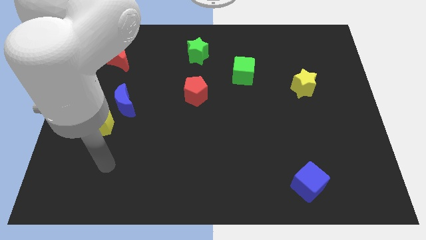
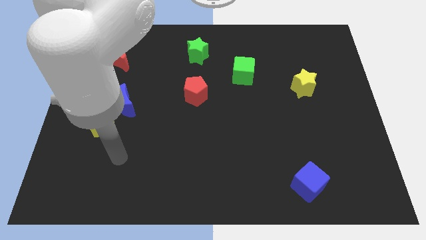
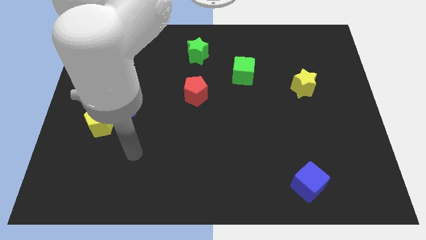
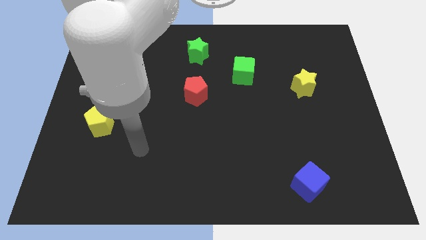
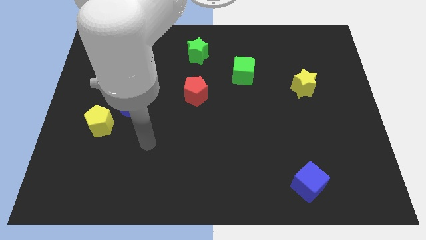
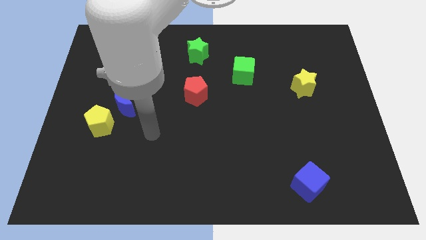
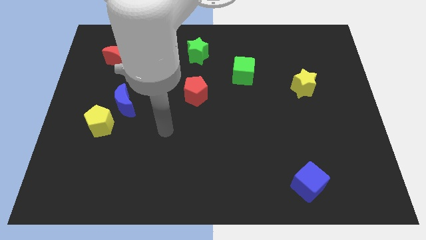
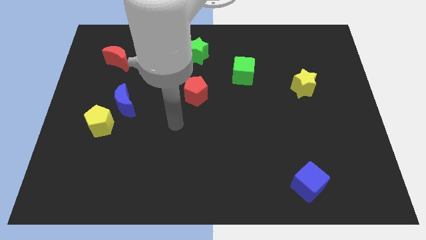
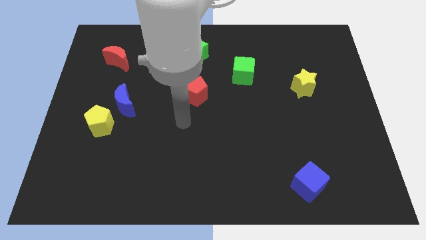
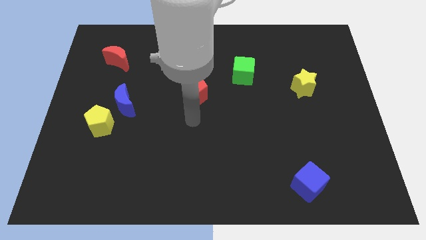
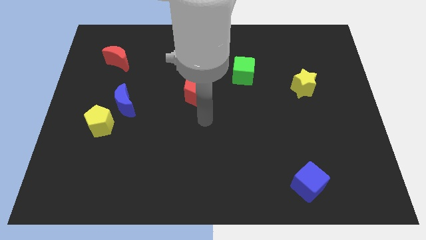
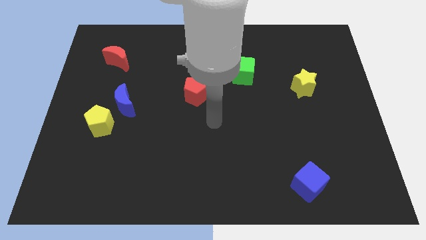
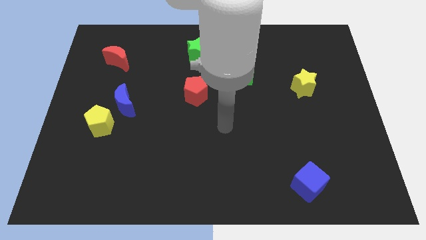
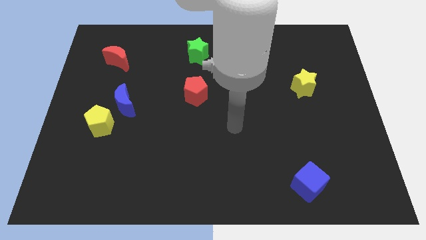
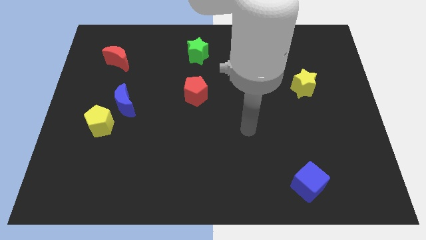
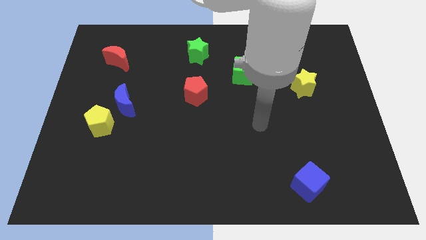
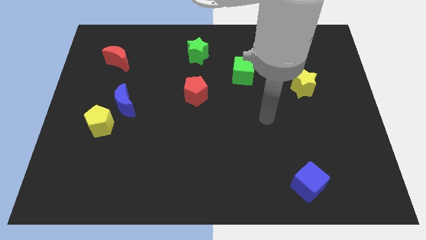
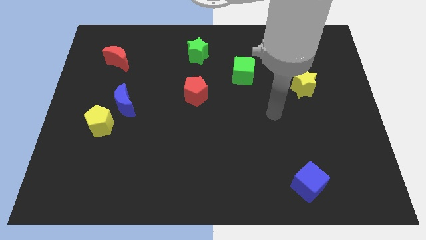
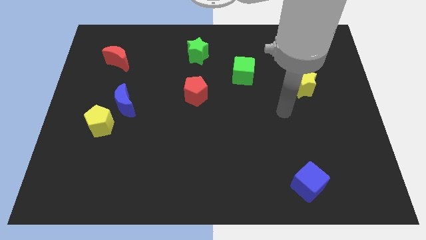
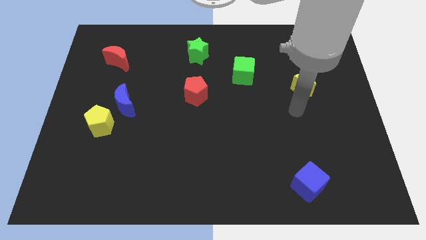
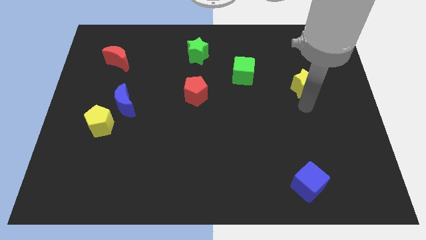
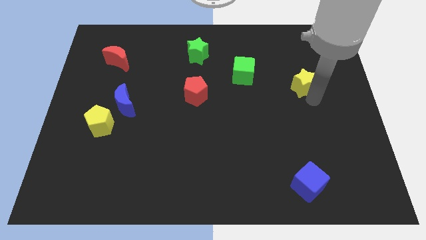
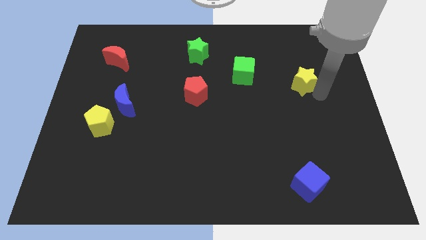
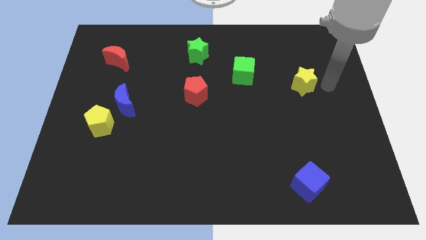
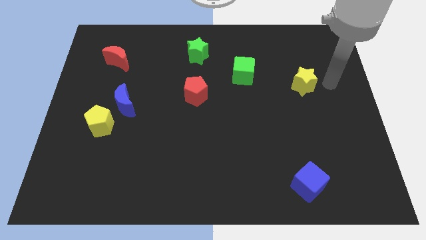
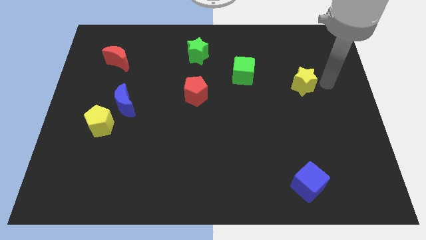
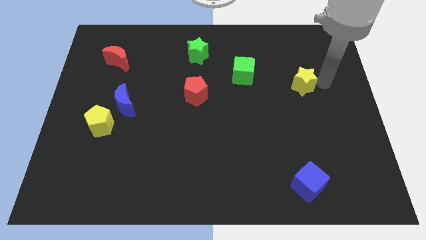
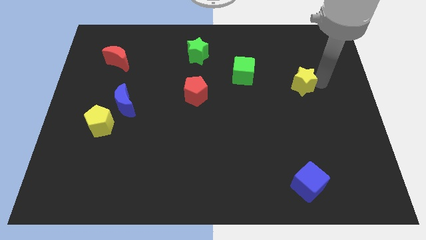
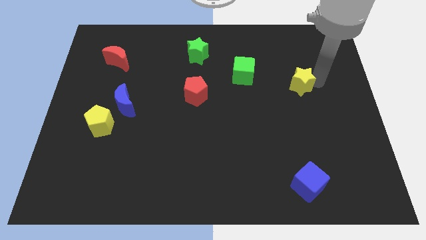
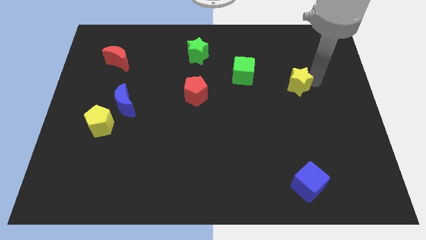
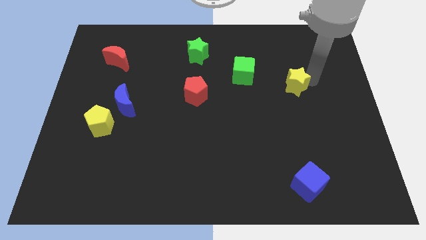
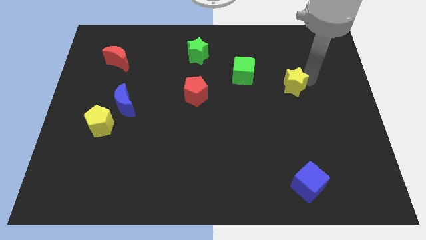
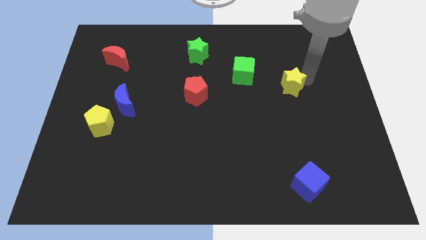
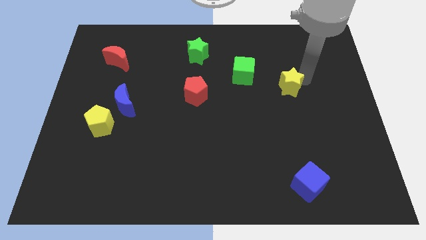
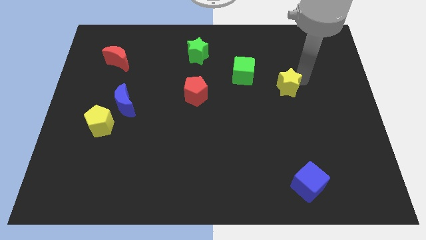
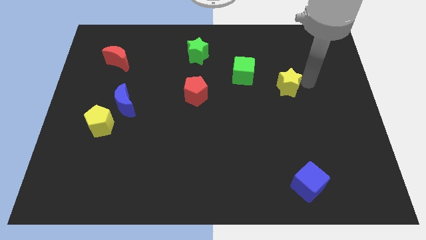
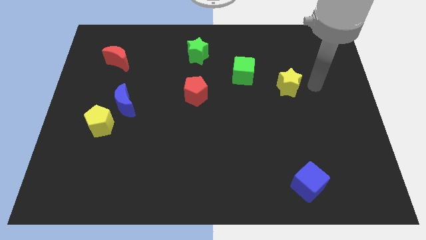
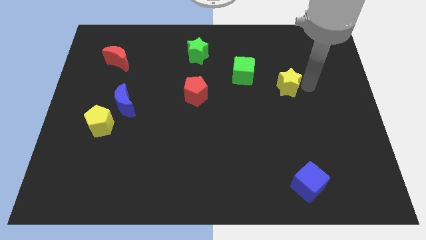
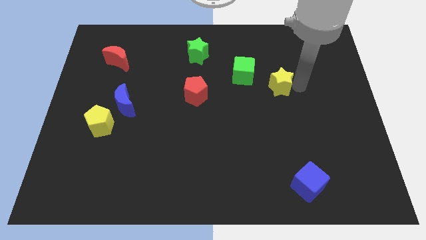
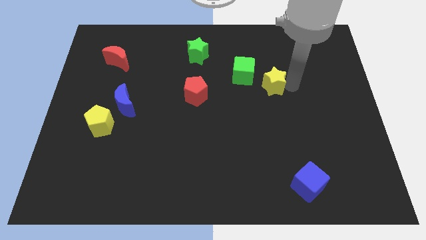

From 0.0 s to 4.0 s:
push the yellow star a bit to the left

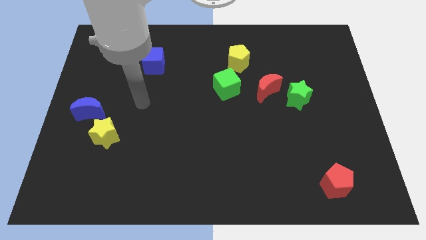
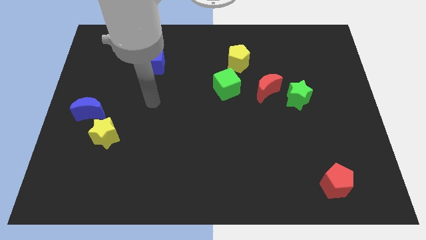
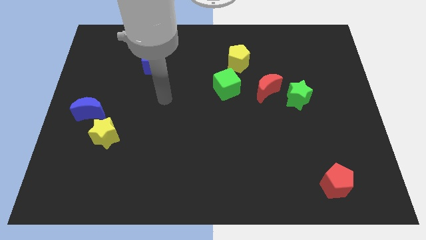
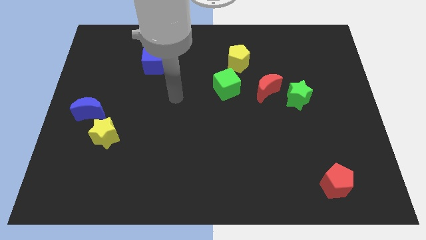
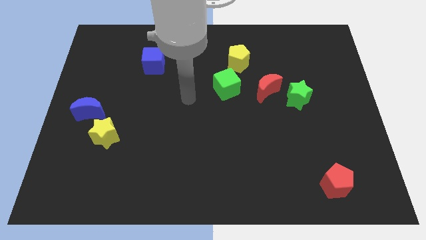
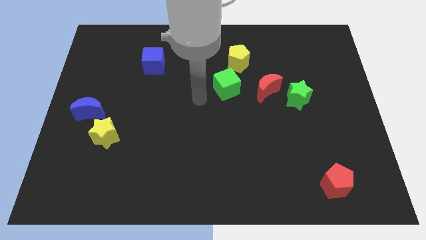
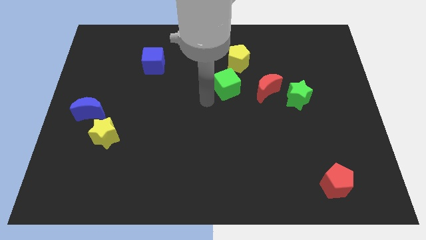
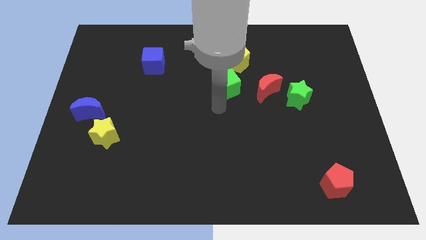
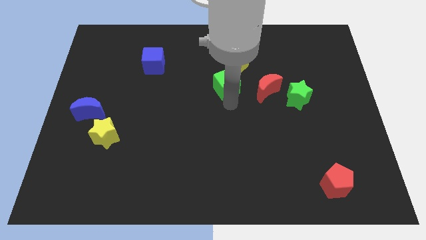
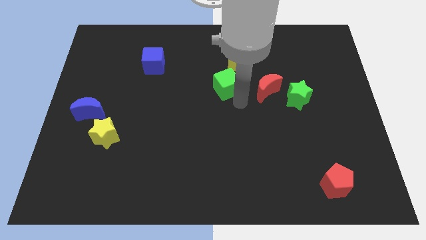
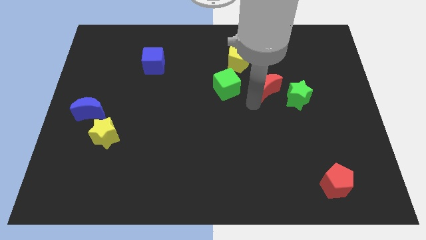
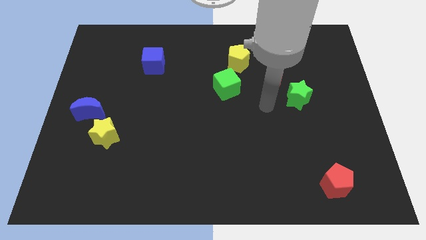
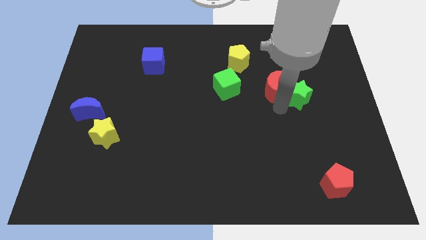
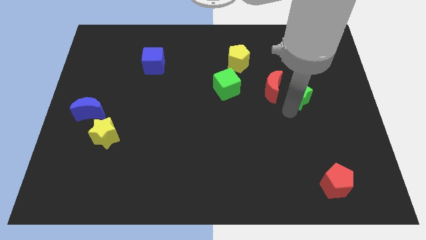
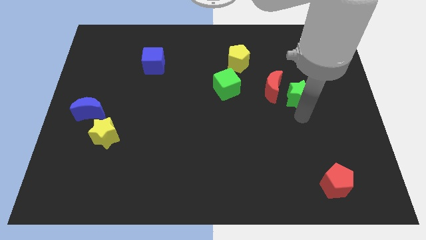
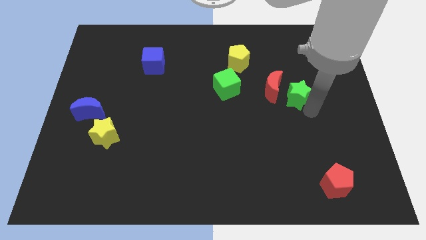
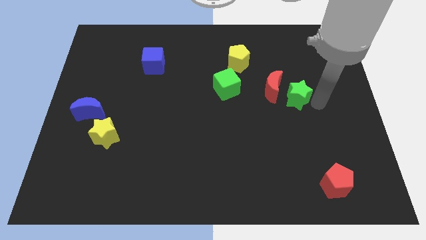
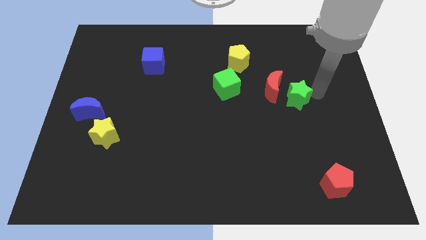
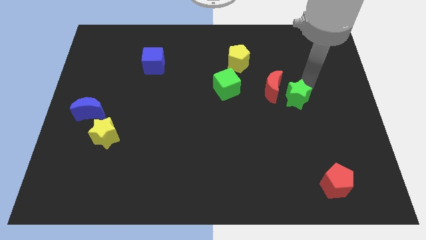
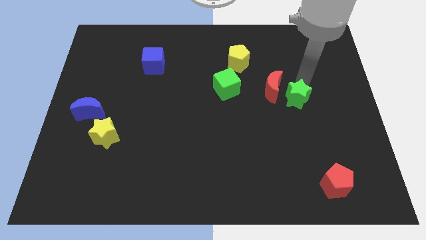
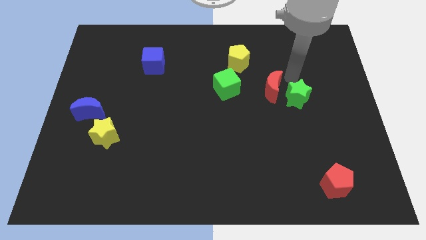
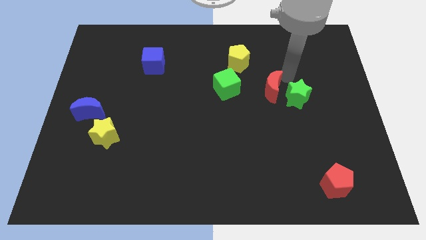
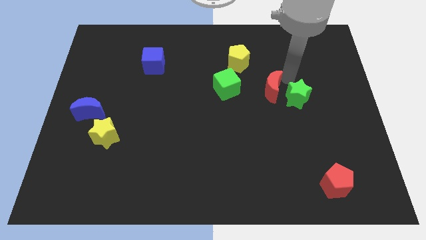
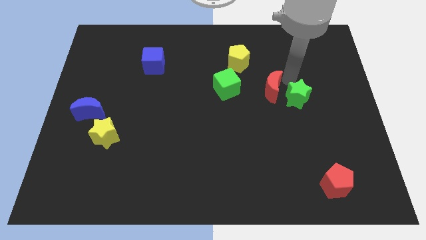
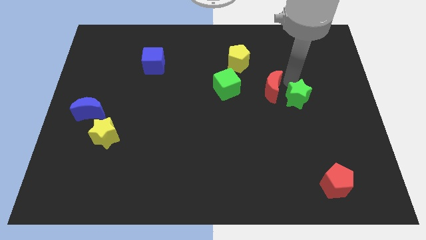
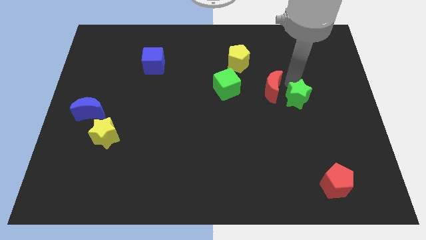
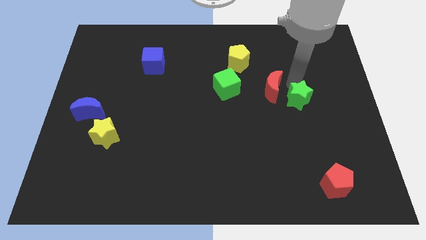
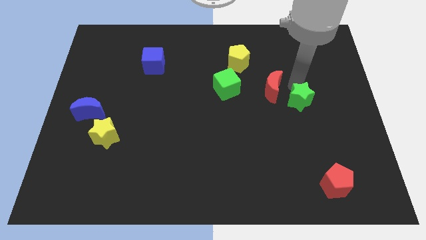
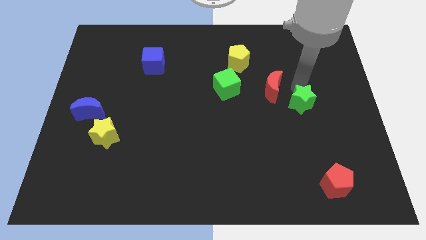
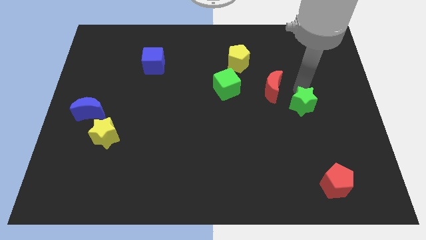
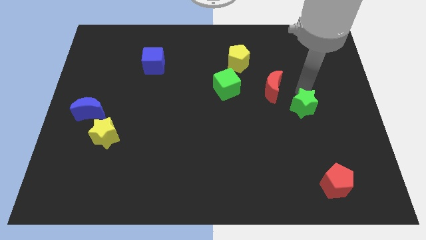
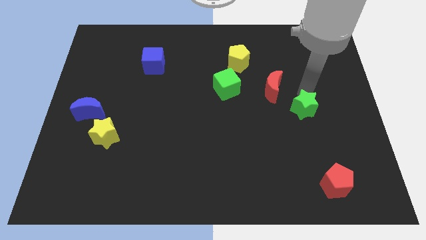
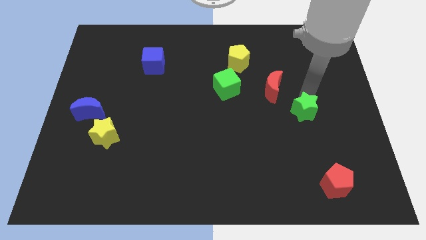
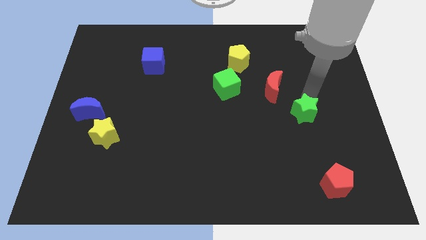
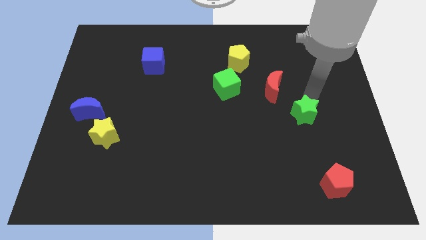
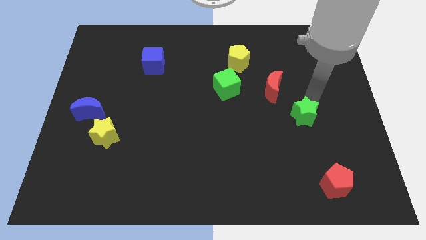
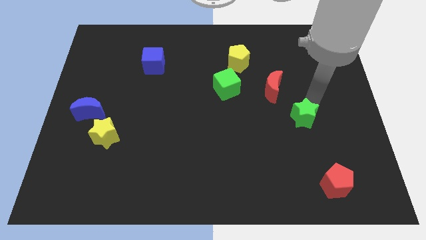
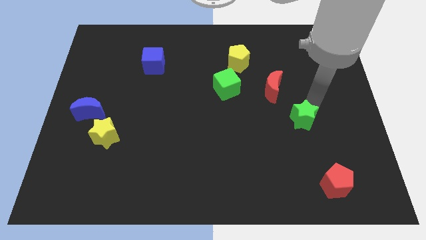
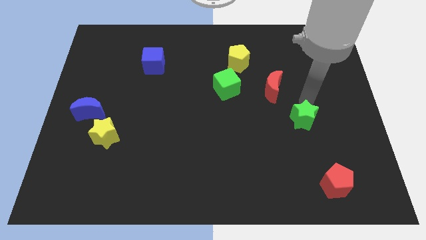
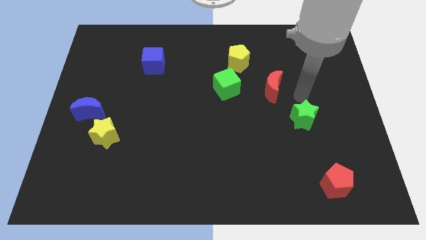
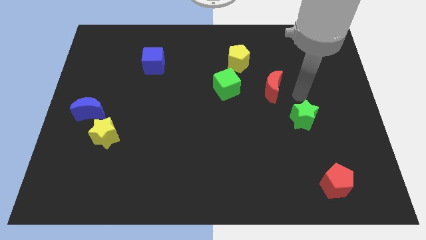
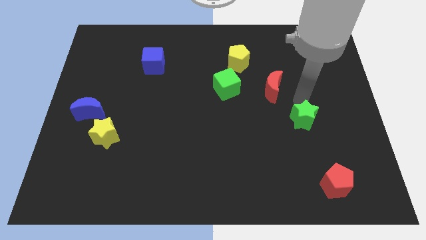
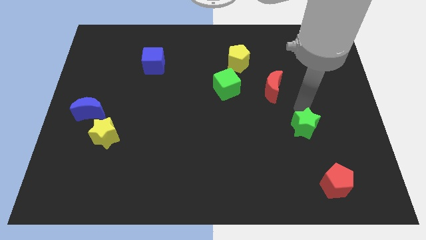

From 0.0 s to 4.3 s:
move the green star somewhat down
